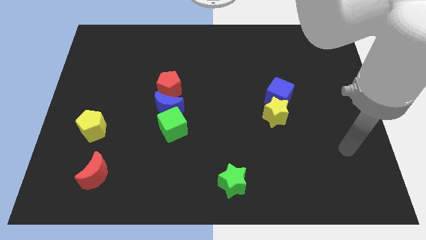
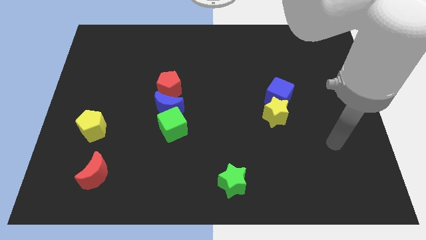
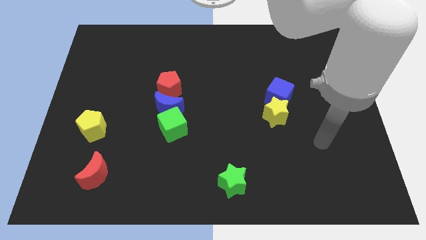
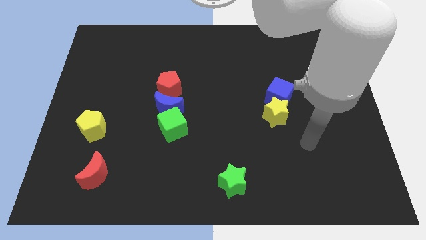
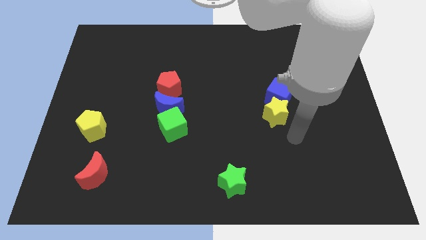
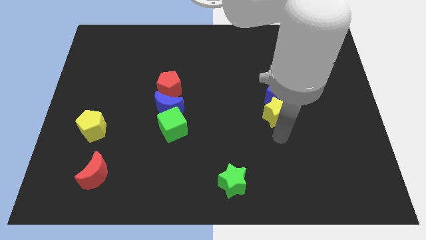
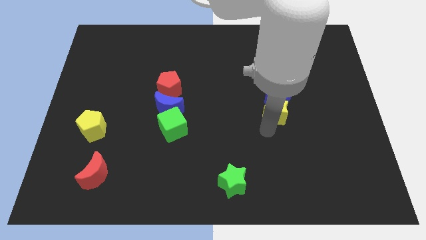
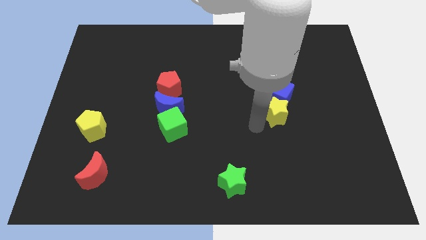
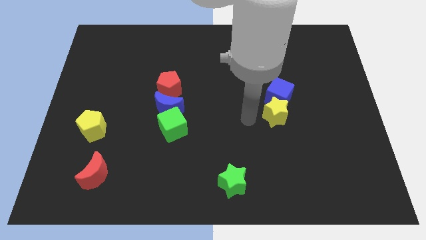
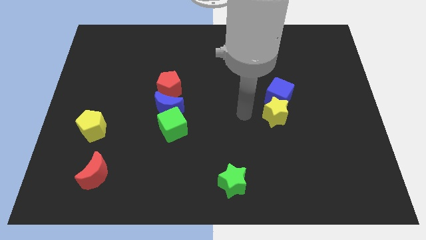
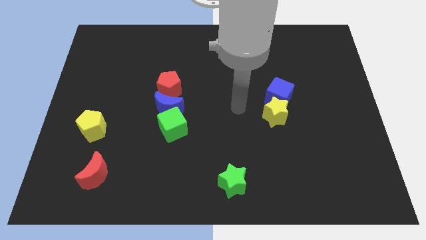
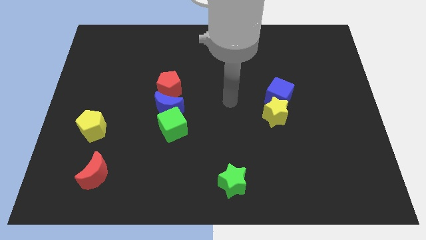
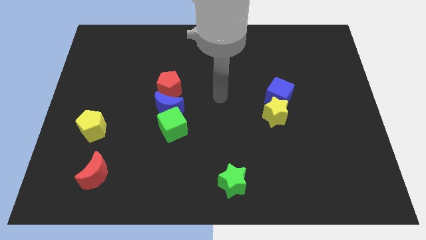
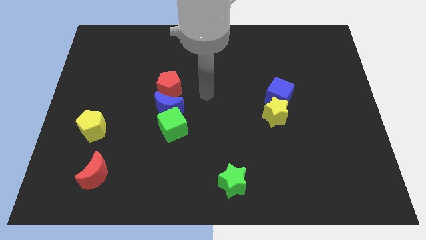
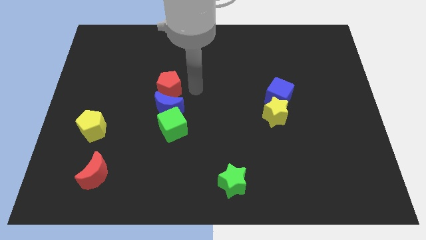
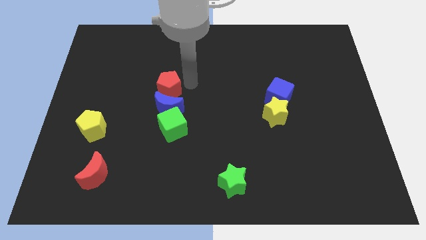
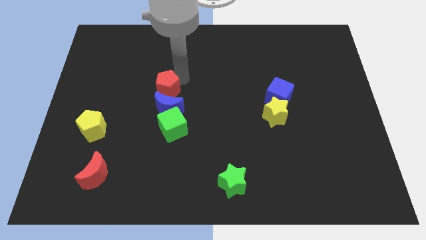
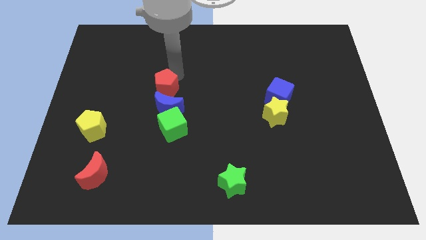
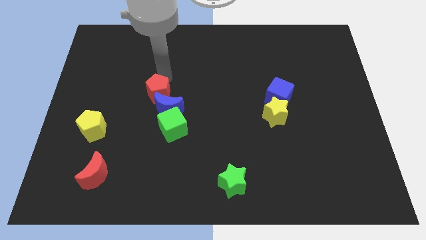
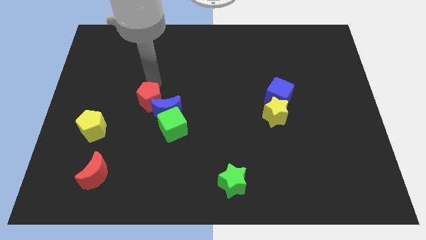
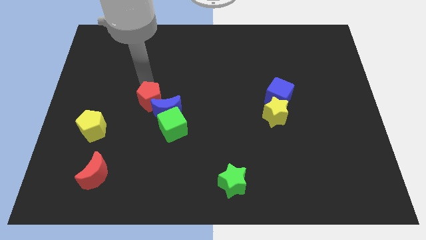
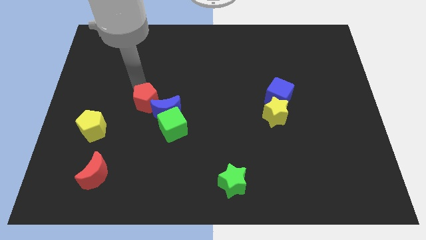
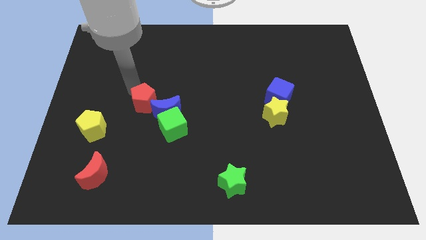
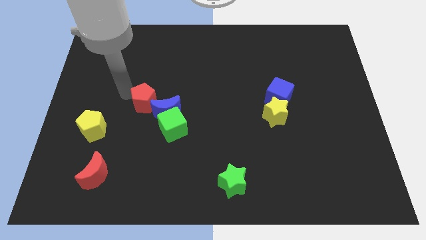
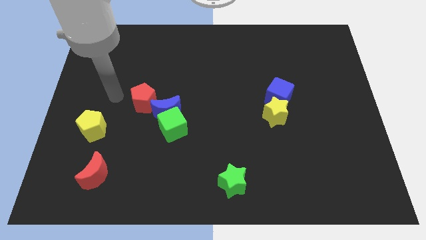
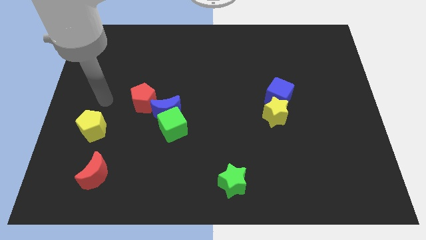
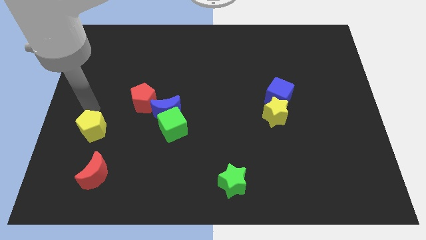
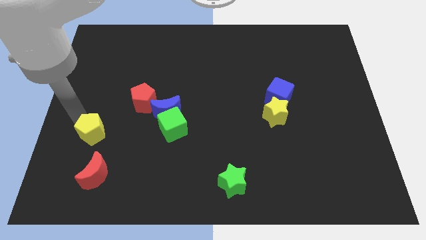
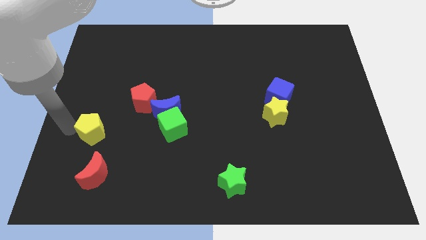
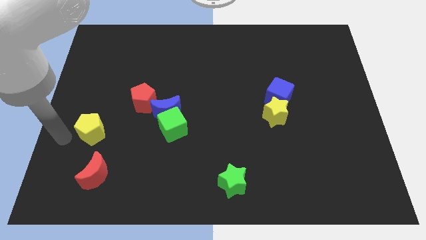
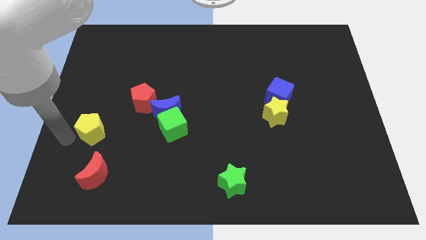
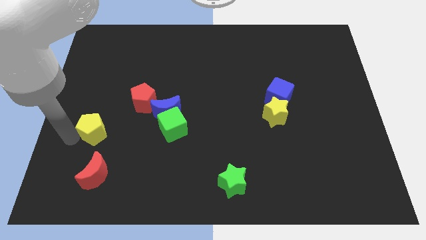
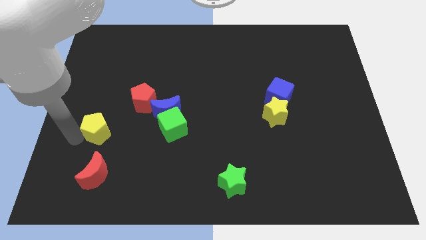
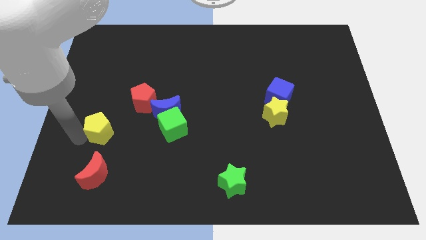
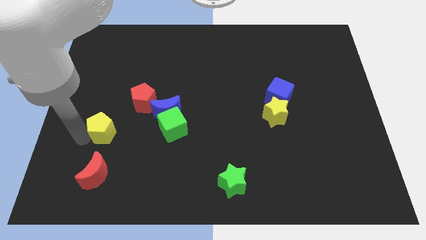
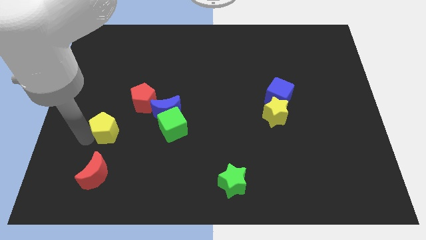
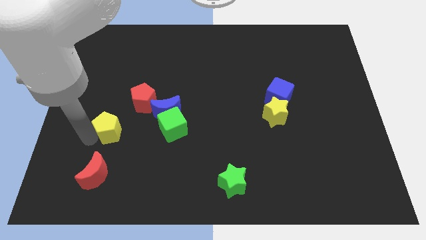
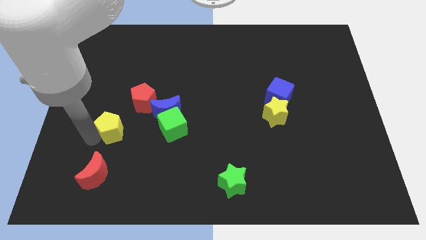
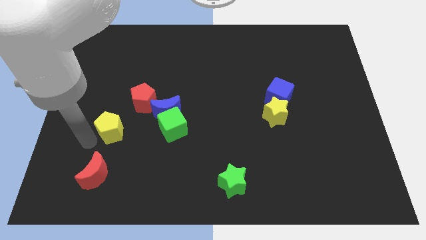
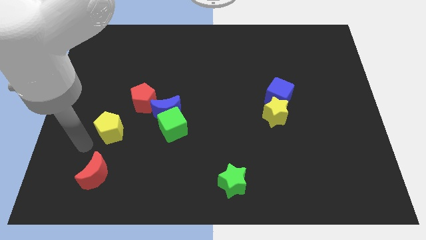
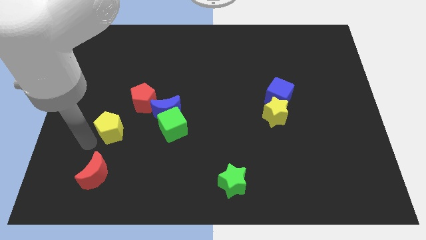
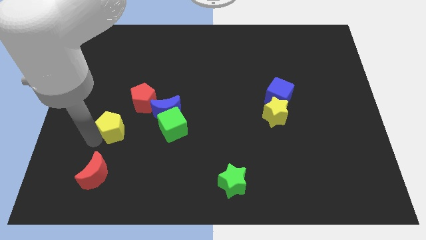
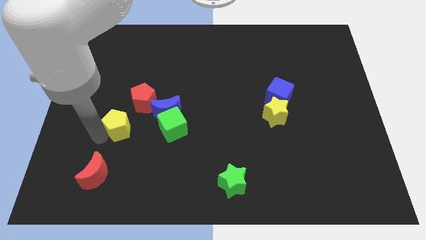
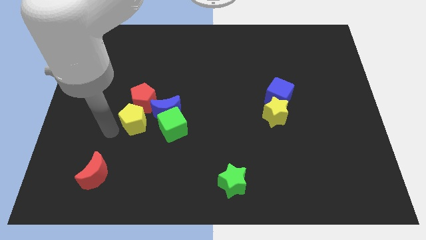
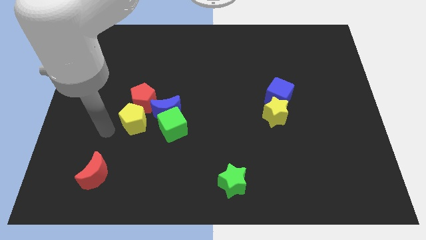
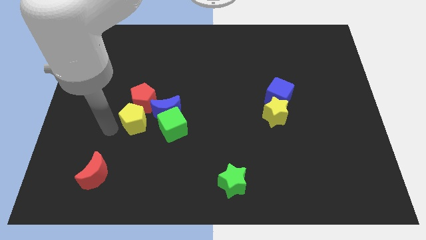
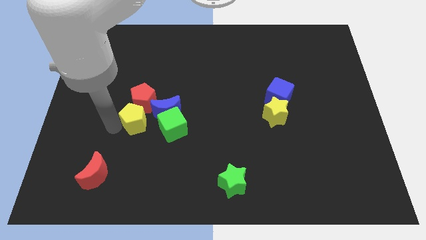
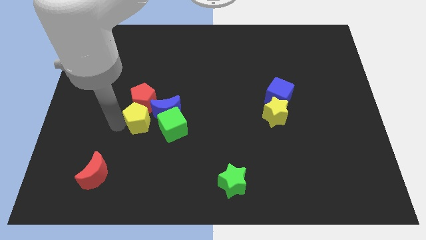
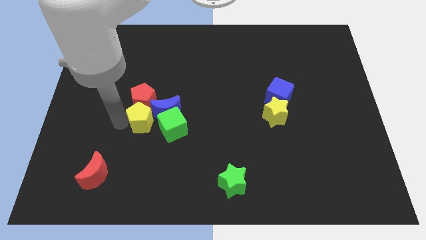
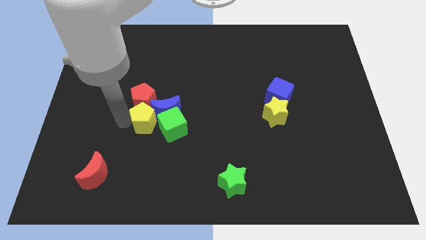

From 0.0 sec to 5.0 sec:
move the yellow pentagon close to the blue moon

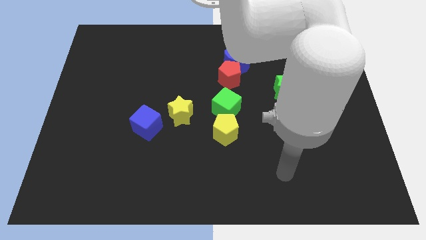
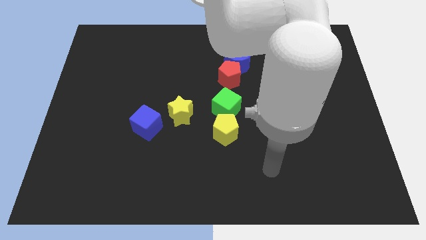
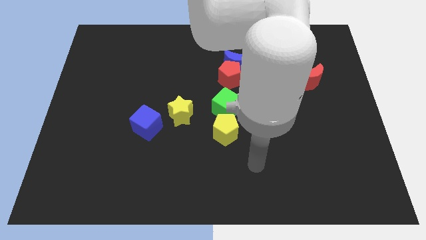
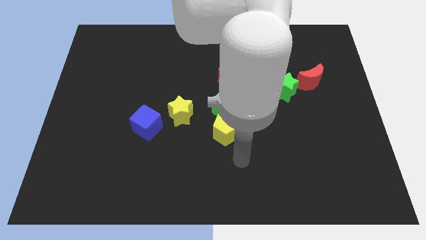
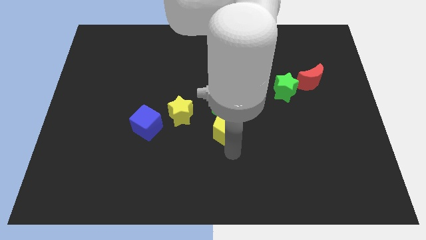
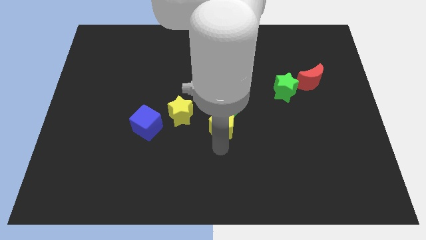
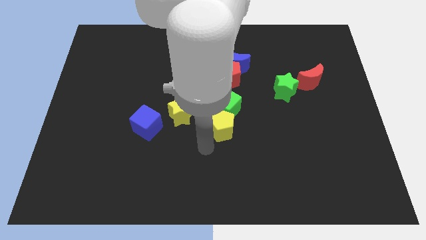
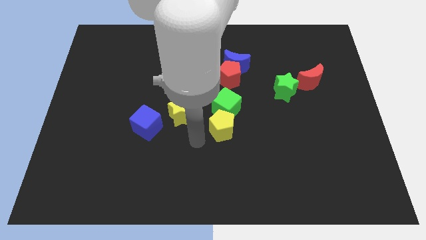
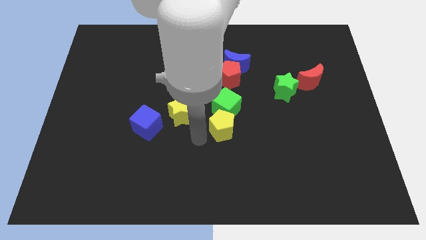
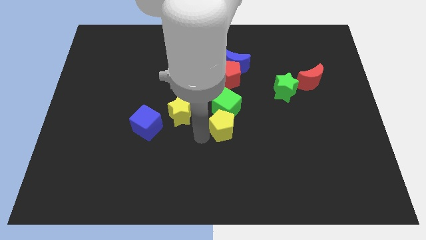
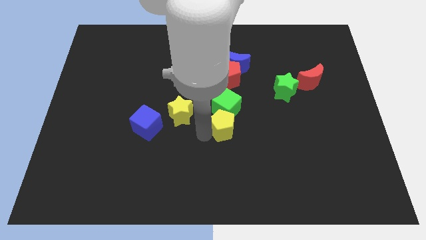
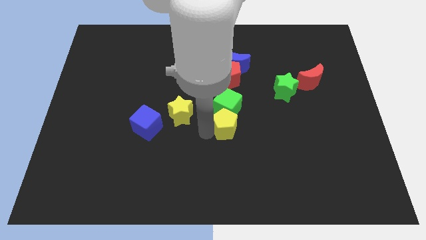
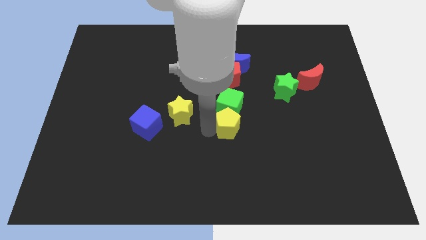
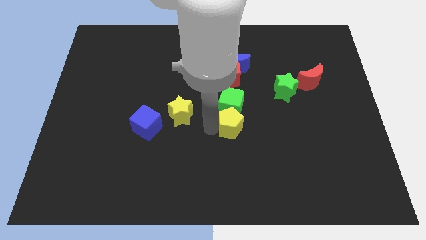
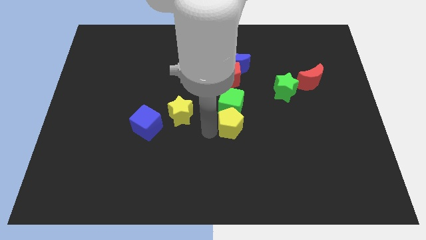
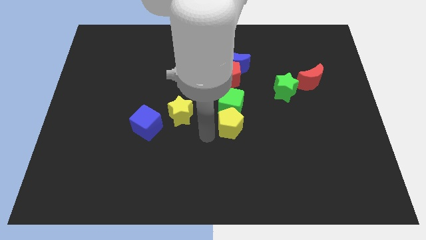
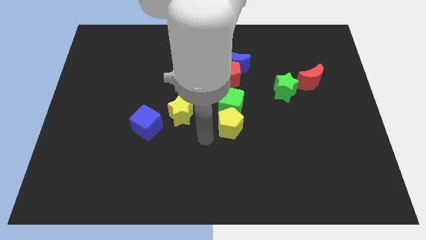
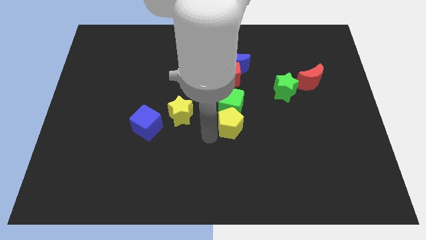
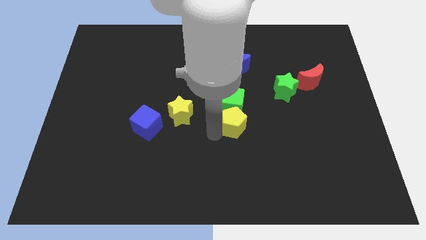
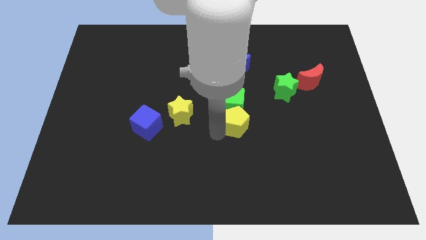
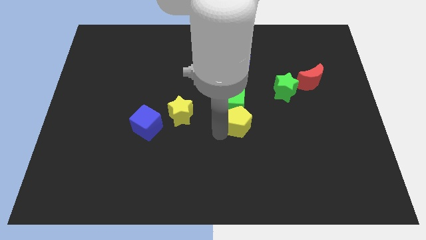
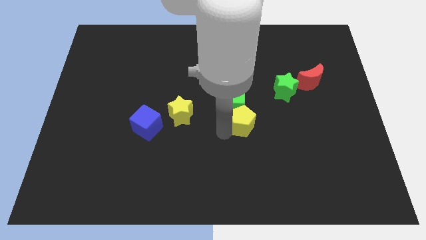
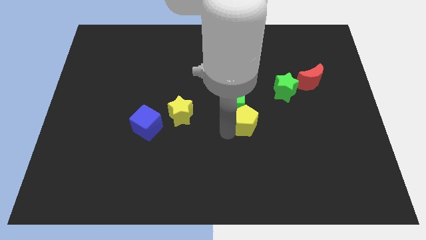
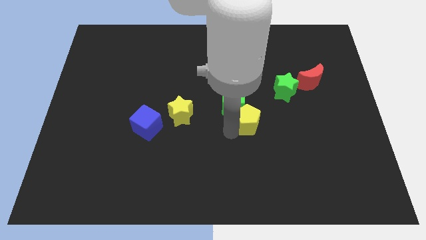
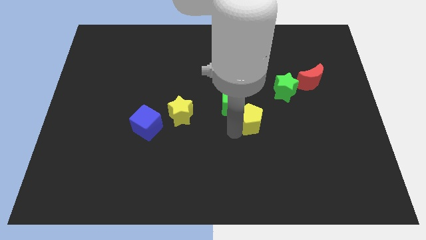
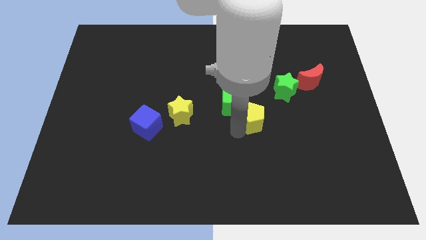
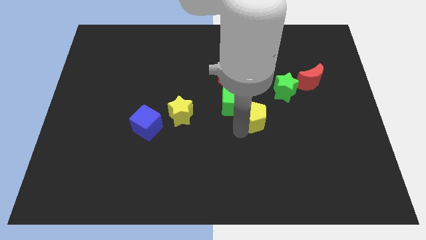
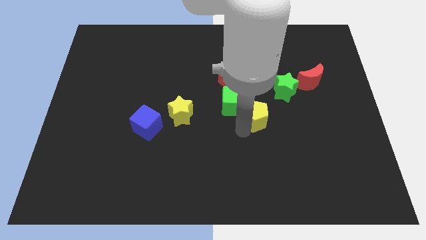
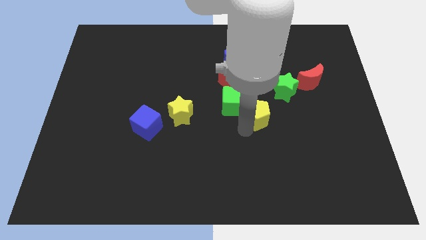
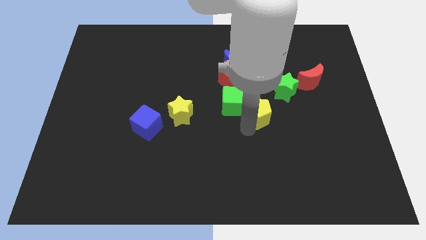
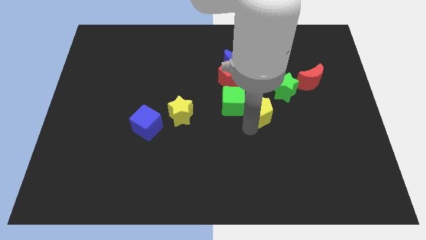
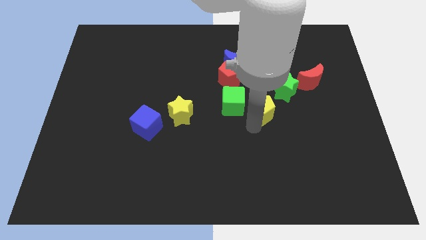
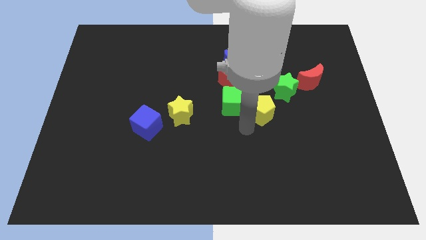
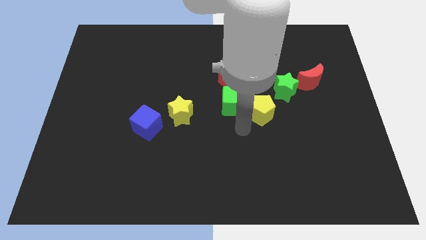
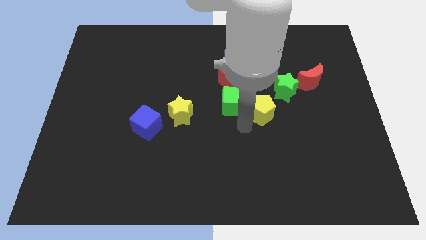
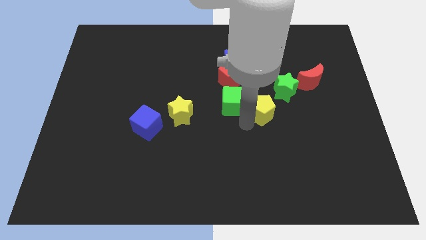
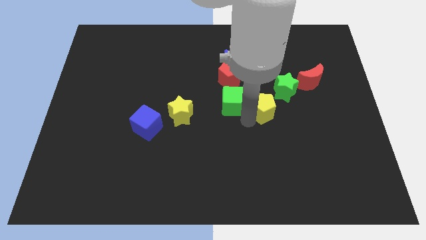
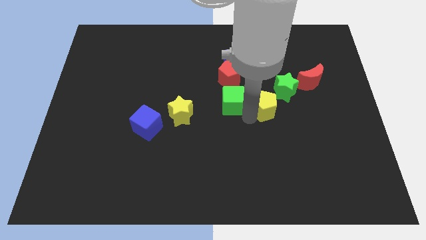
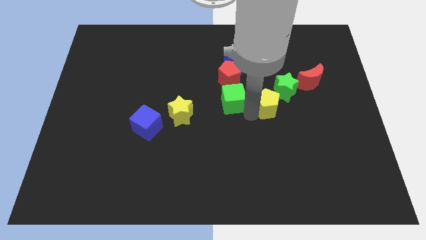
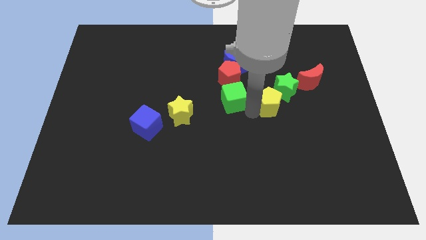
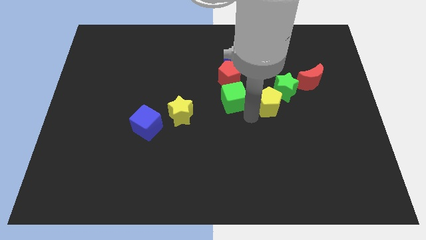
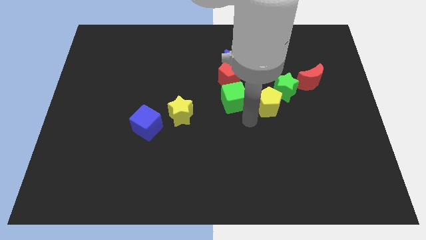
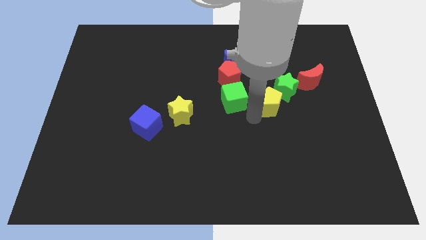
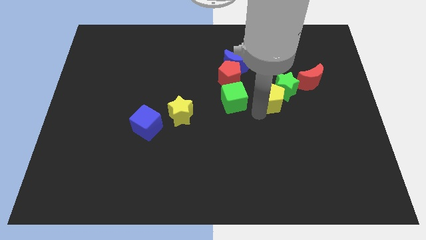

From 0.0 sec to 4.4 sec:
move the yellow pentagon to the green star
